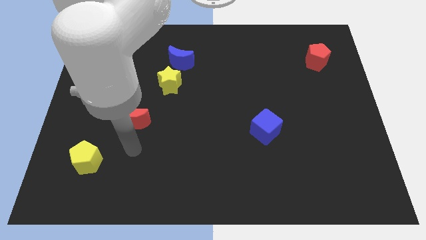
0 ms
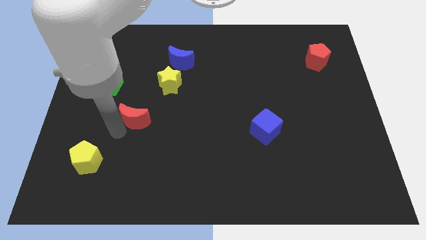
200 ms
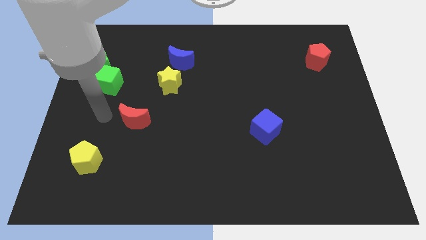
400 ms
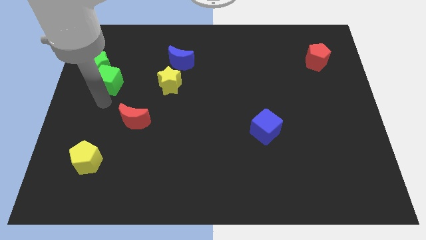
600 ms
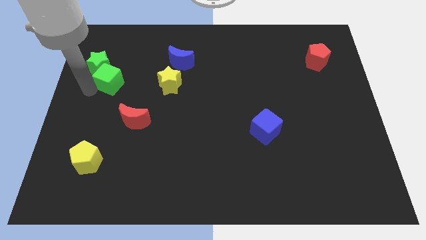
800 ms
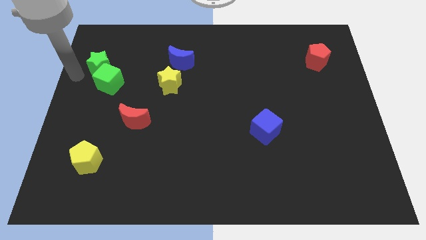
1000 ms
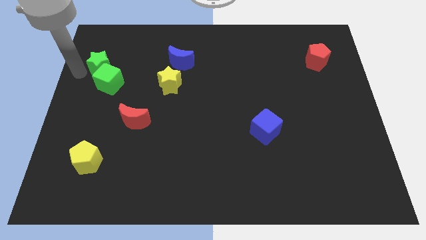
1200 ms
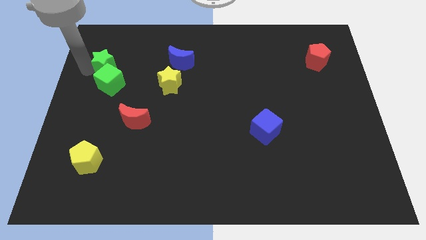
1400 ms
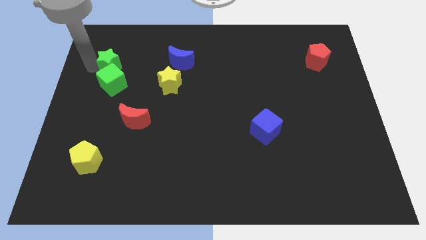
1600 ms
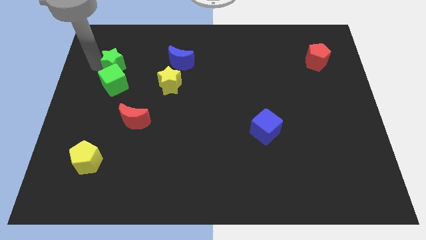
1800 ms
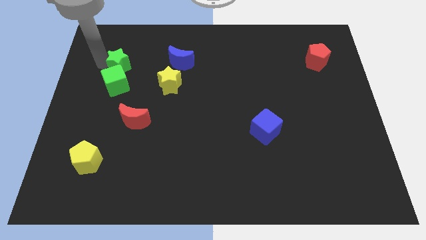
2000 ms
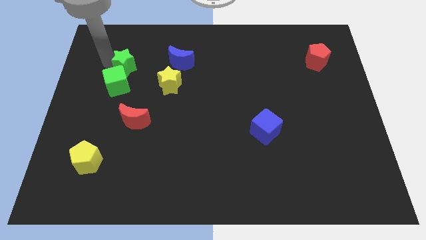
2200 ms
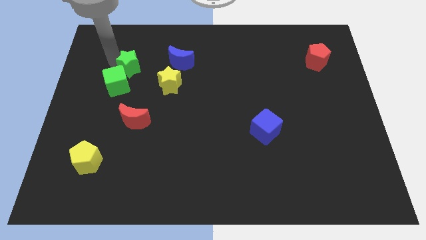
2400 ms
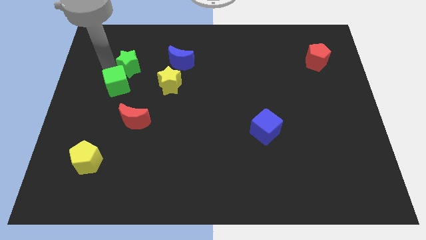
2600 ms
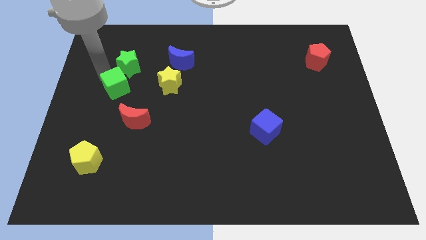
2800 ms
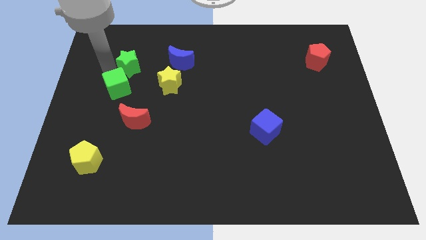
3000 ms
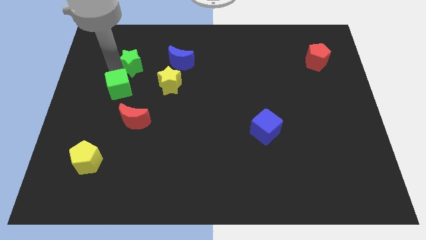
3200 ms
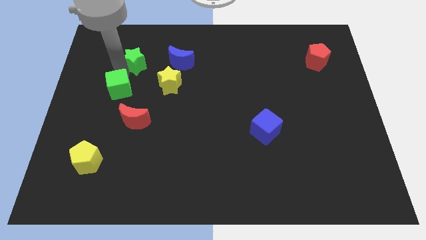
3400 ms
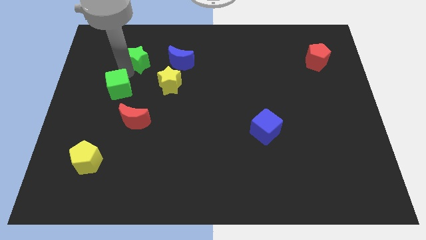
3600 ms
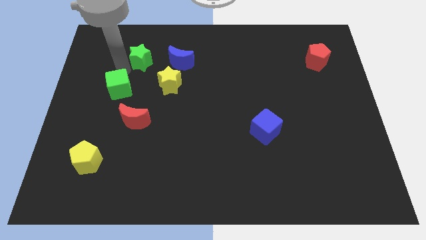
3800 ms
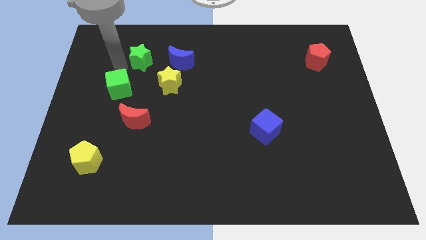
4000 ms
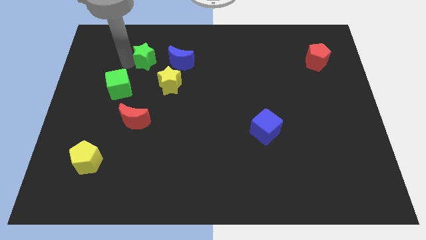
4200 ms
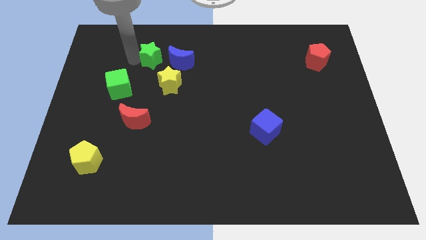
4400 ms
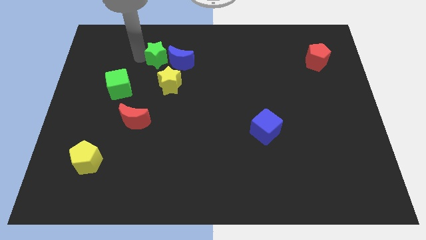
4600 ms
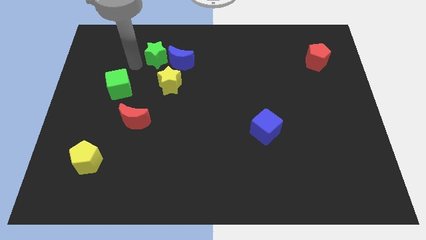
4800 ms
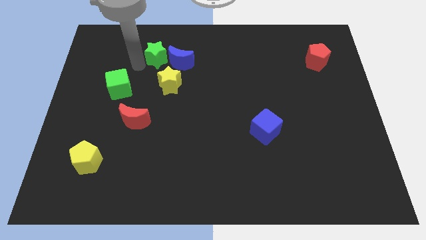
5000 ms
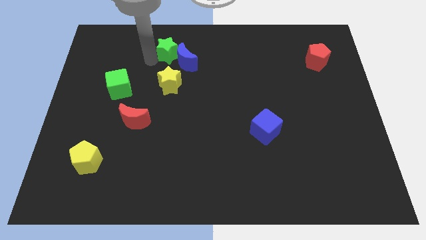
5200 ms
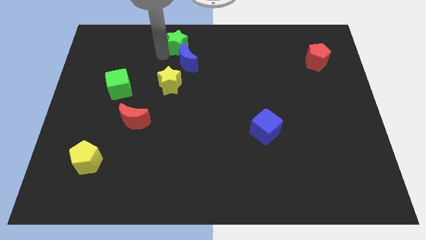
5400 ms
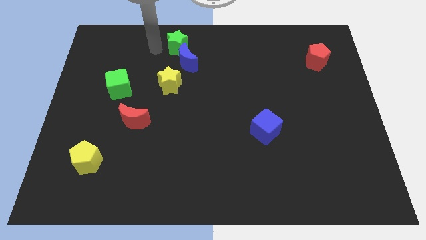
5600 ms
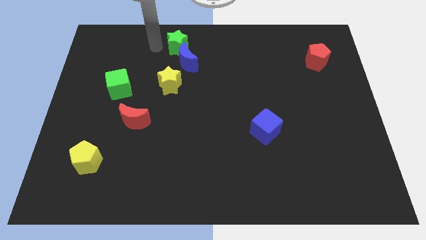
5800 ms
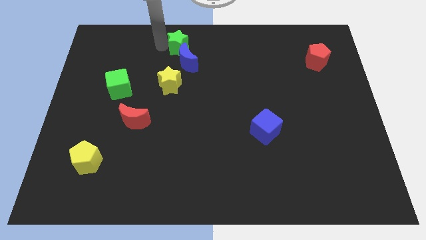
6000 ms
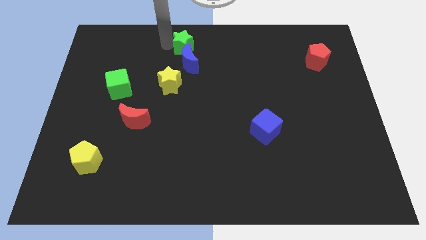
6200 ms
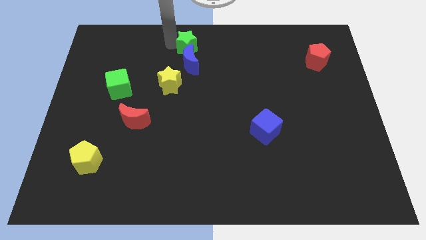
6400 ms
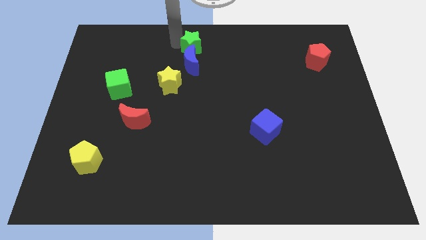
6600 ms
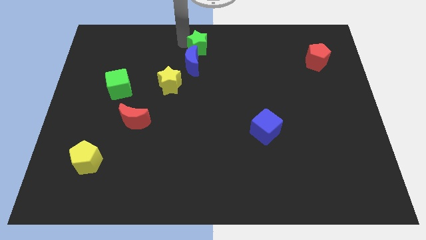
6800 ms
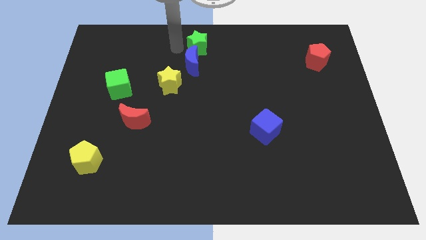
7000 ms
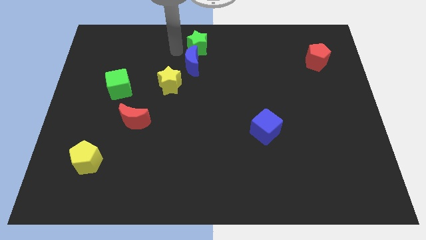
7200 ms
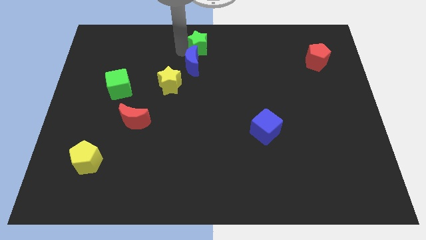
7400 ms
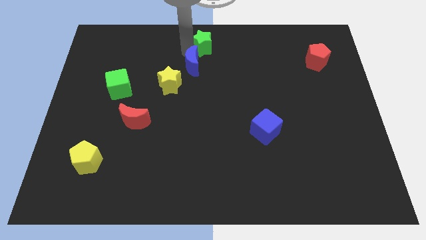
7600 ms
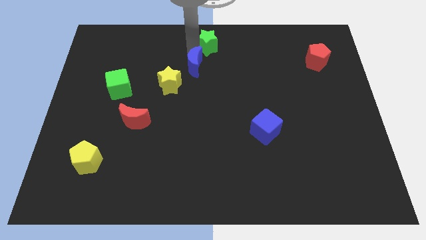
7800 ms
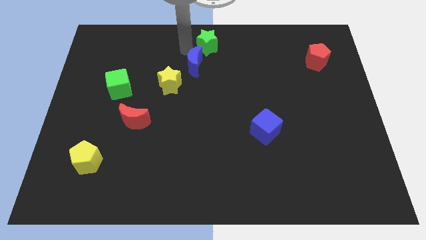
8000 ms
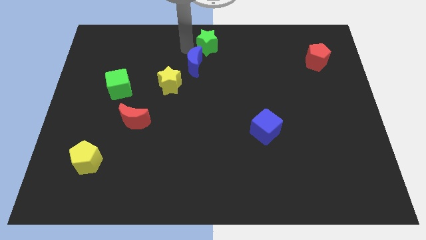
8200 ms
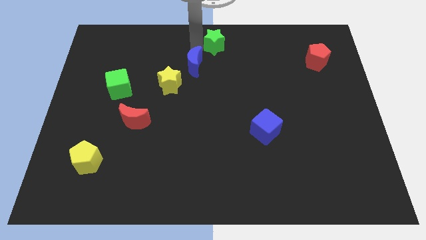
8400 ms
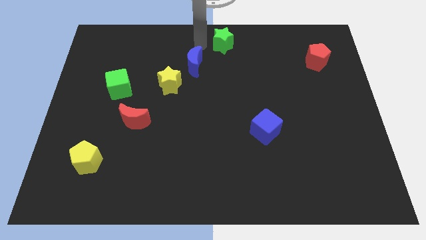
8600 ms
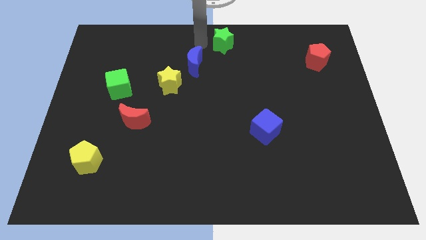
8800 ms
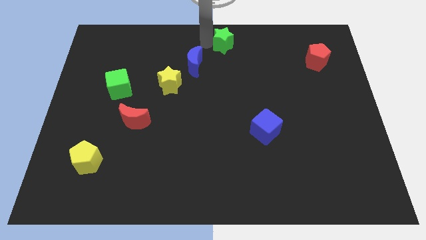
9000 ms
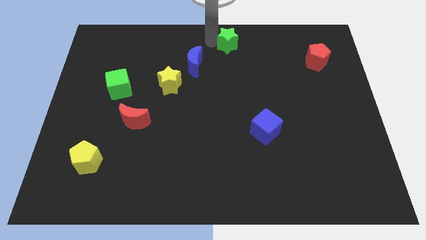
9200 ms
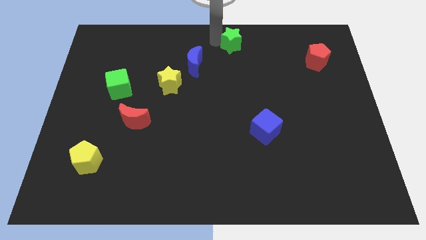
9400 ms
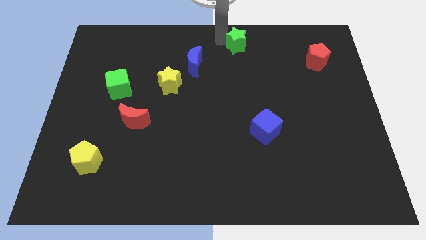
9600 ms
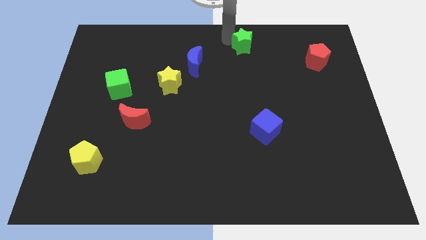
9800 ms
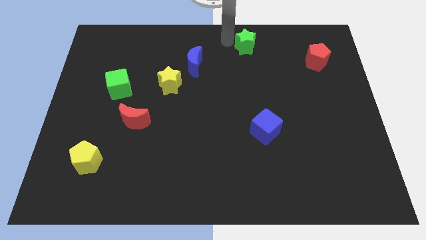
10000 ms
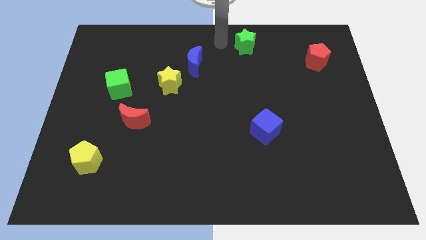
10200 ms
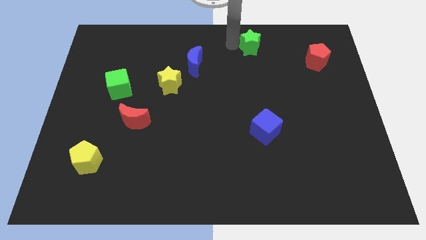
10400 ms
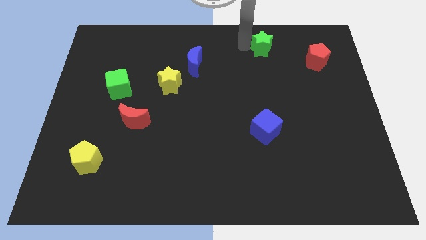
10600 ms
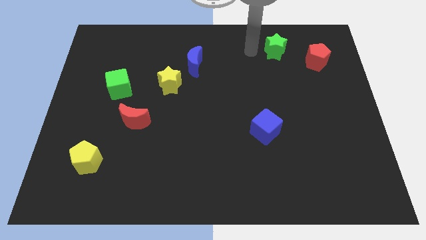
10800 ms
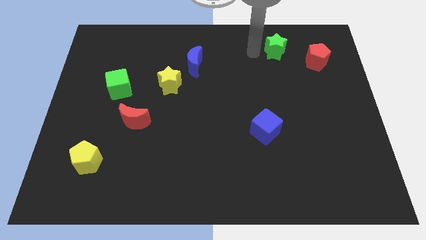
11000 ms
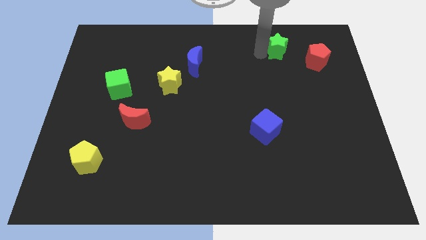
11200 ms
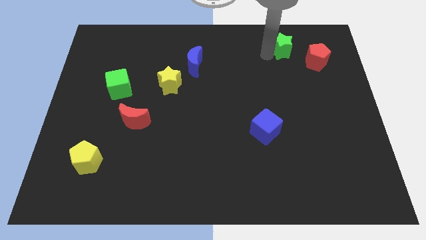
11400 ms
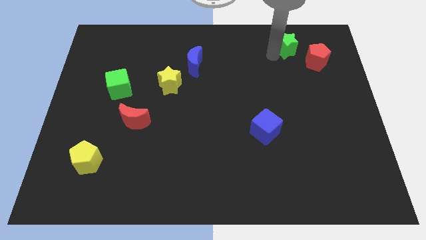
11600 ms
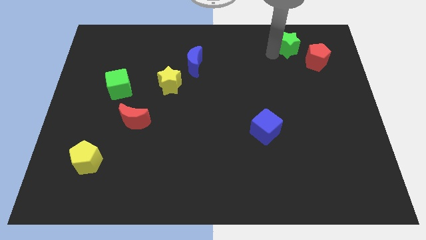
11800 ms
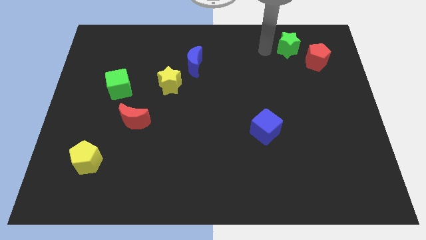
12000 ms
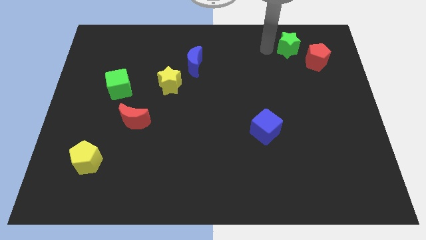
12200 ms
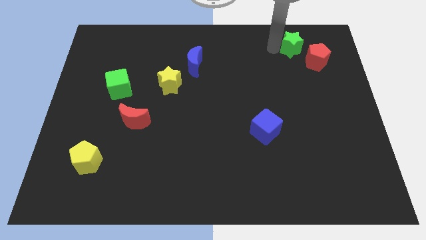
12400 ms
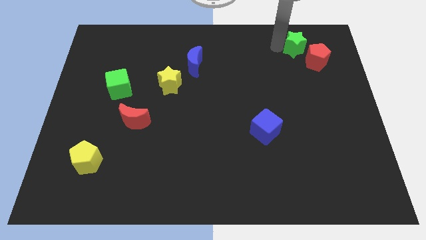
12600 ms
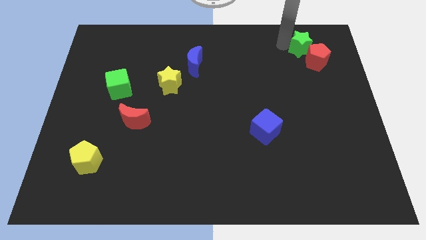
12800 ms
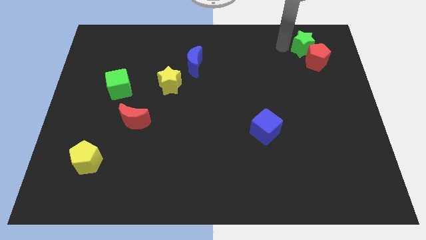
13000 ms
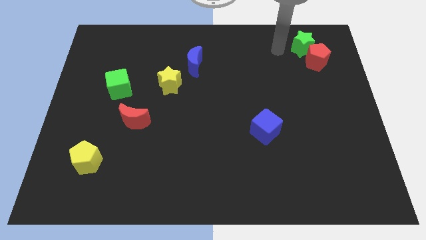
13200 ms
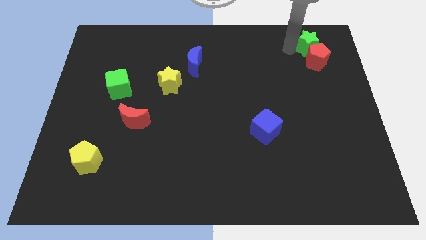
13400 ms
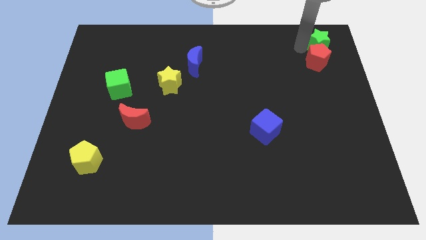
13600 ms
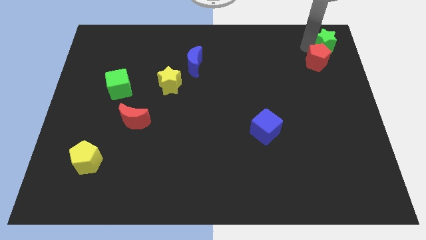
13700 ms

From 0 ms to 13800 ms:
push the green star to the top right corner

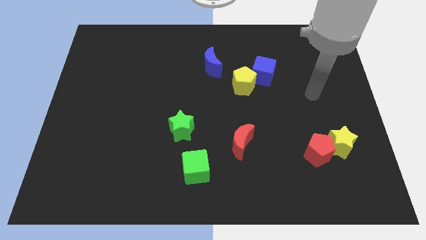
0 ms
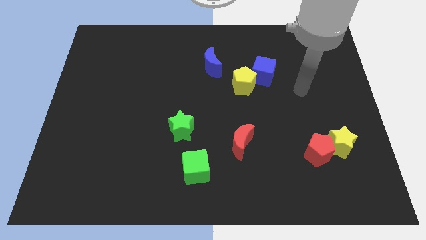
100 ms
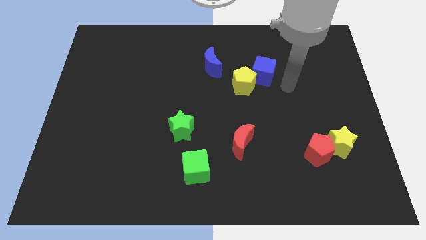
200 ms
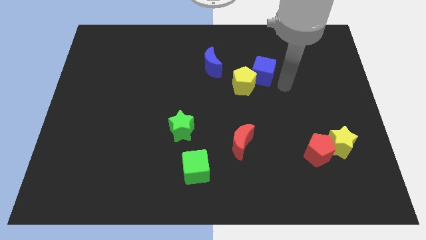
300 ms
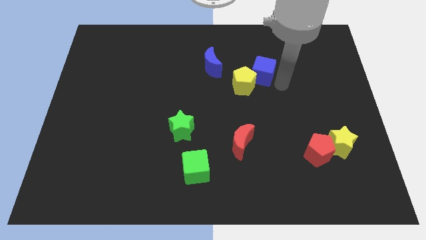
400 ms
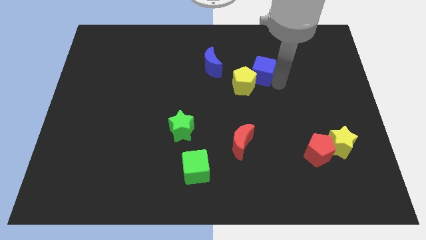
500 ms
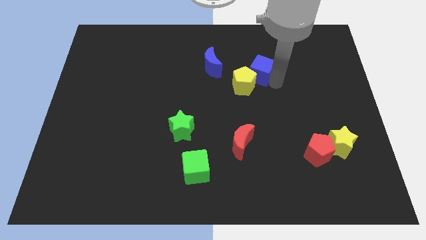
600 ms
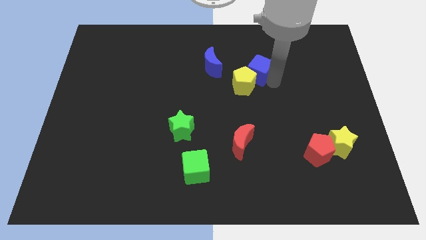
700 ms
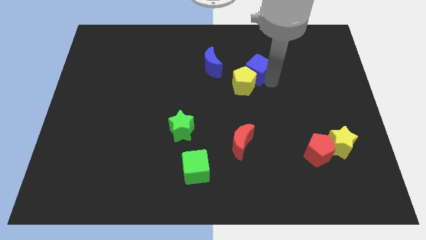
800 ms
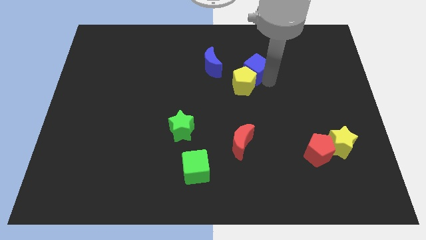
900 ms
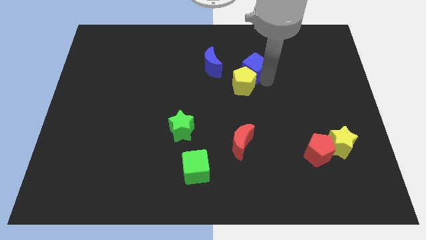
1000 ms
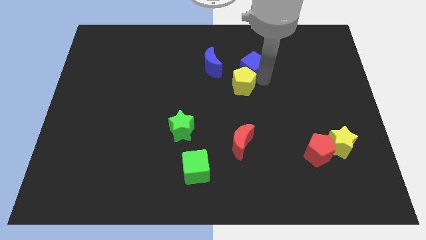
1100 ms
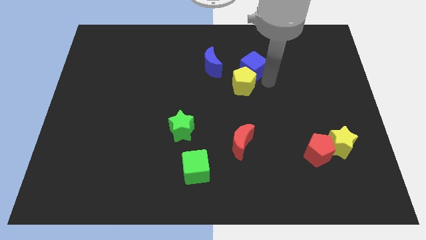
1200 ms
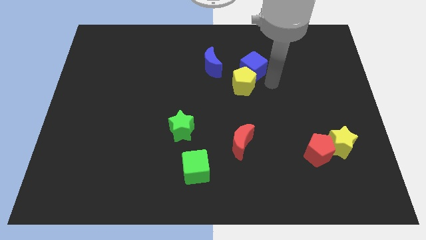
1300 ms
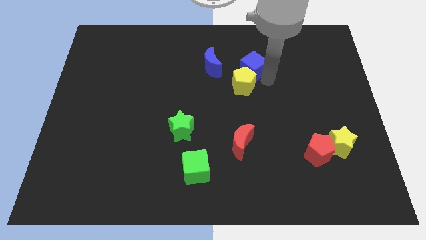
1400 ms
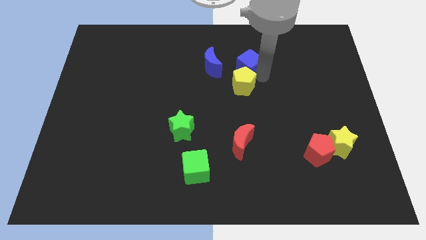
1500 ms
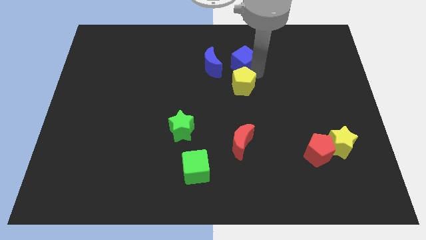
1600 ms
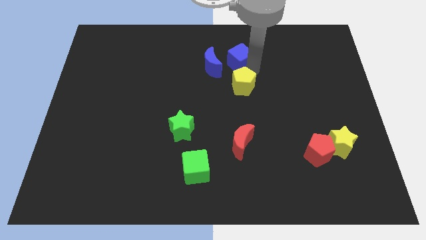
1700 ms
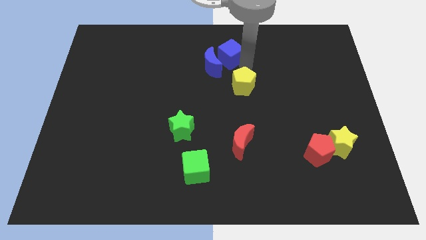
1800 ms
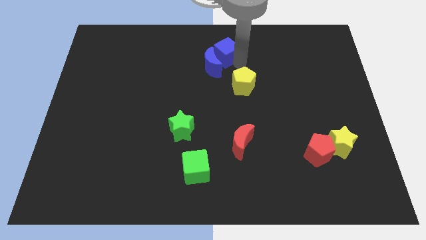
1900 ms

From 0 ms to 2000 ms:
slide the blue cube to the towards your base
